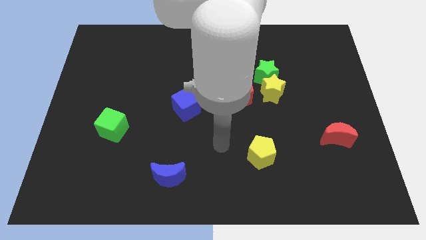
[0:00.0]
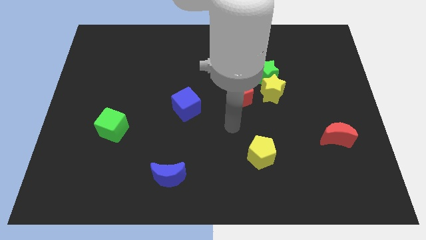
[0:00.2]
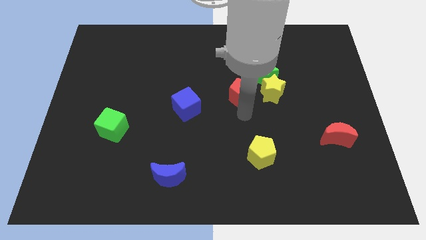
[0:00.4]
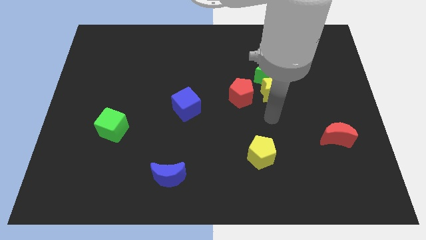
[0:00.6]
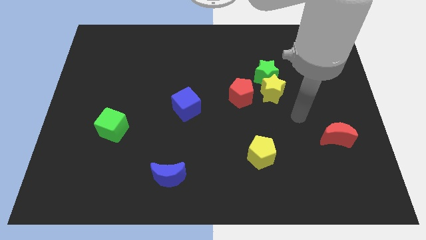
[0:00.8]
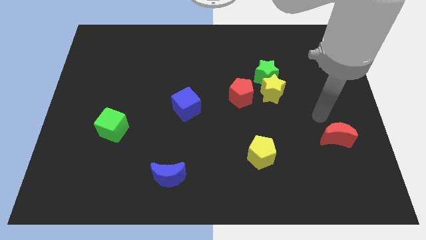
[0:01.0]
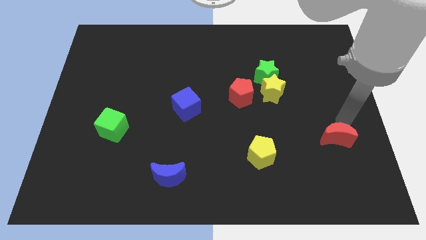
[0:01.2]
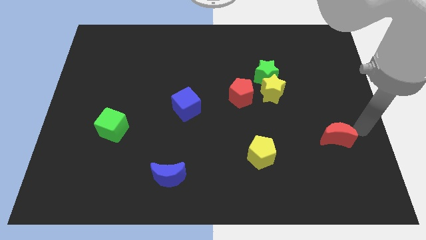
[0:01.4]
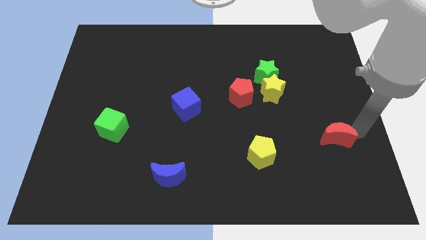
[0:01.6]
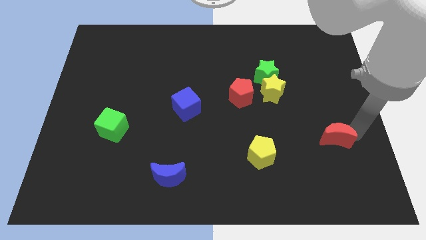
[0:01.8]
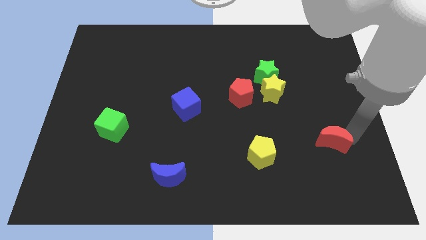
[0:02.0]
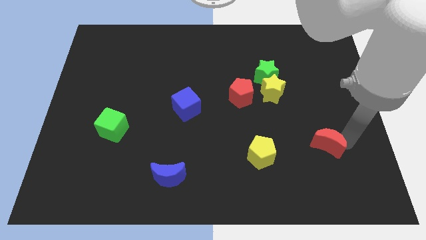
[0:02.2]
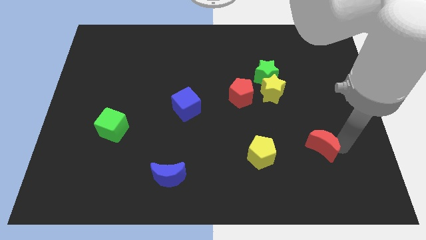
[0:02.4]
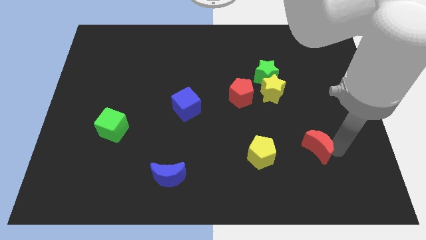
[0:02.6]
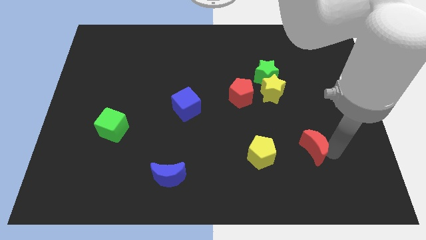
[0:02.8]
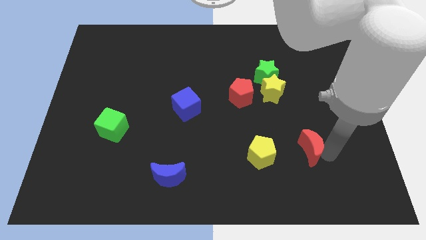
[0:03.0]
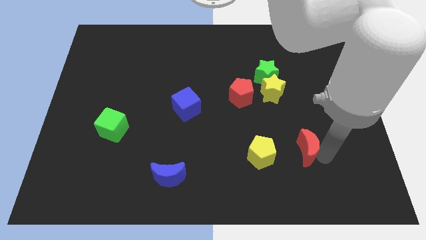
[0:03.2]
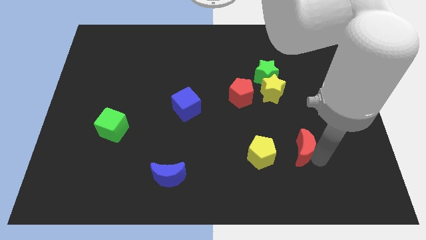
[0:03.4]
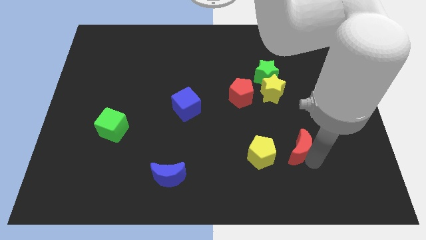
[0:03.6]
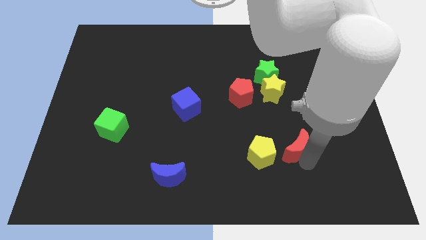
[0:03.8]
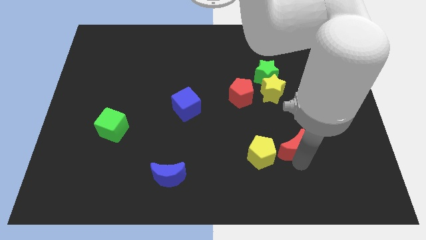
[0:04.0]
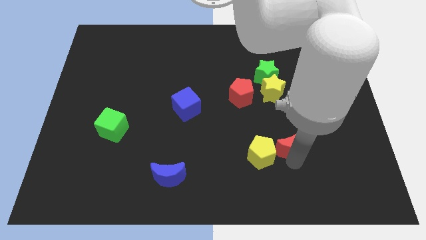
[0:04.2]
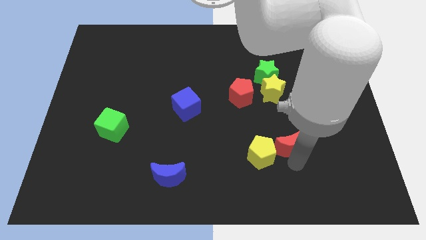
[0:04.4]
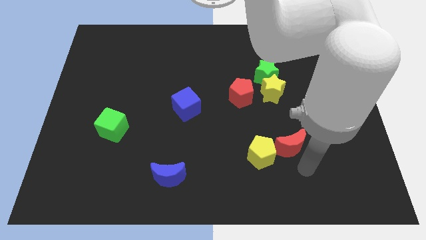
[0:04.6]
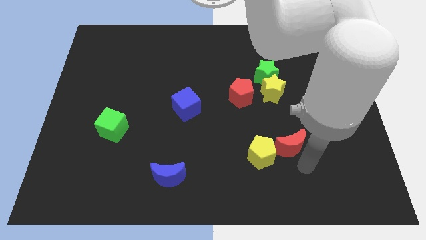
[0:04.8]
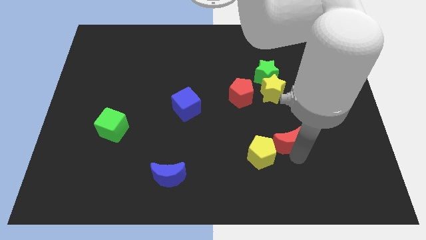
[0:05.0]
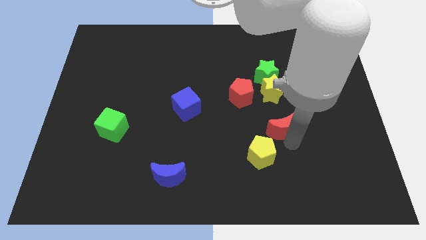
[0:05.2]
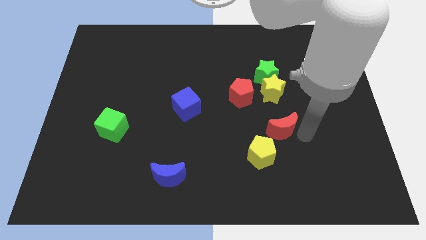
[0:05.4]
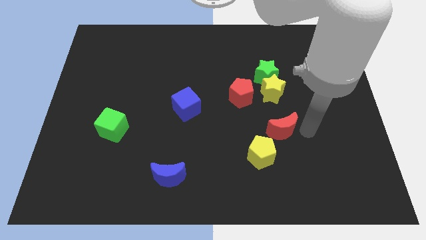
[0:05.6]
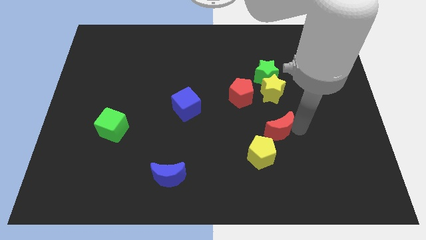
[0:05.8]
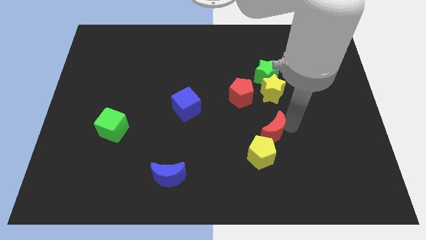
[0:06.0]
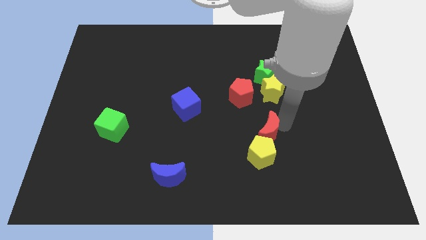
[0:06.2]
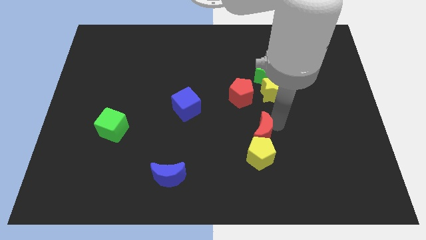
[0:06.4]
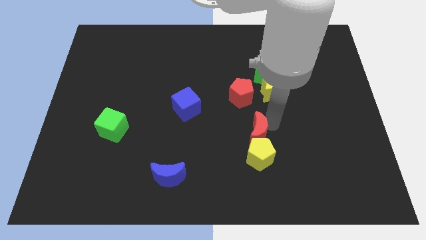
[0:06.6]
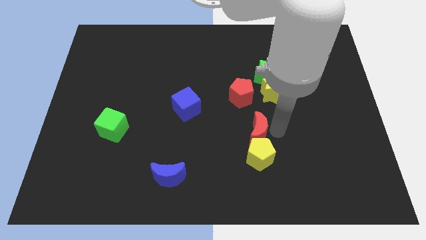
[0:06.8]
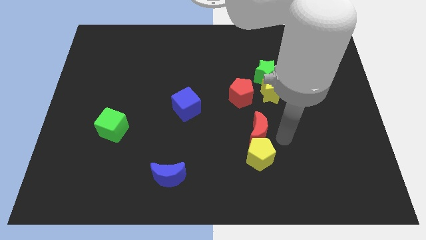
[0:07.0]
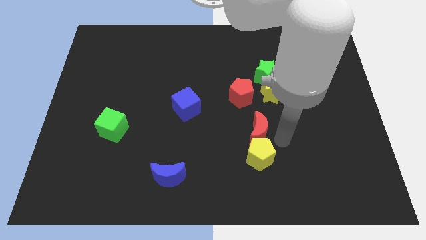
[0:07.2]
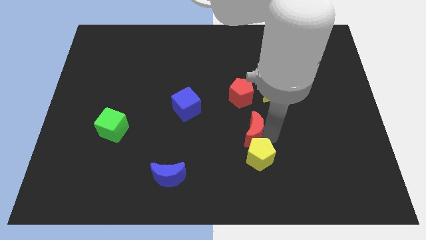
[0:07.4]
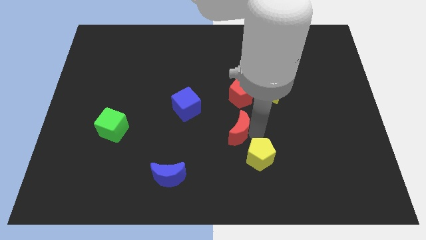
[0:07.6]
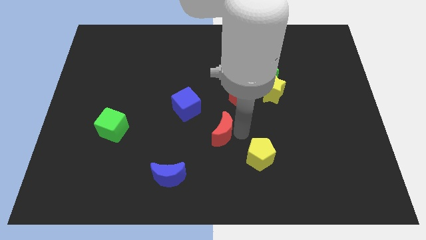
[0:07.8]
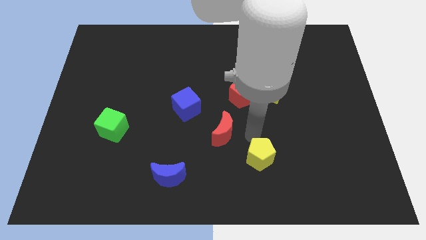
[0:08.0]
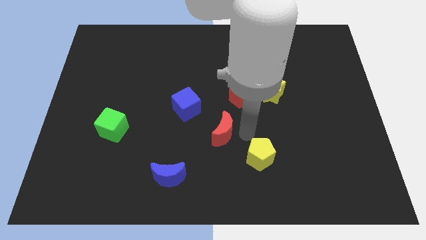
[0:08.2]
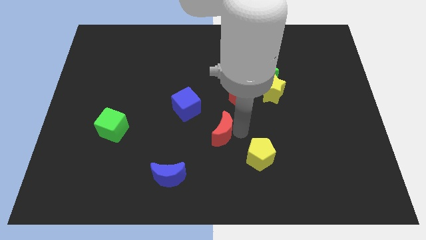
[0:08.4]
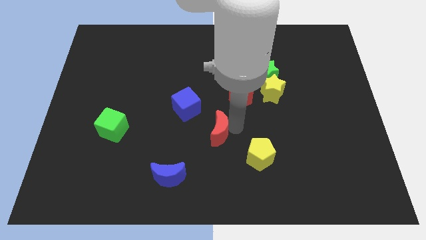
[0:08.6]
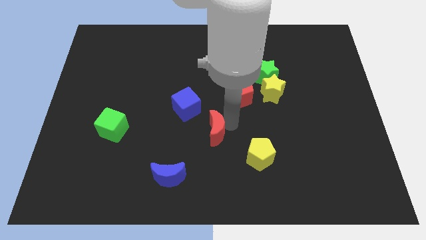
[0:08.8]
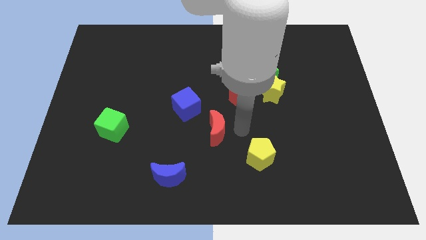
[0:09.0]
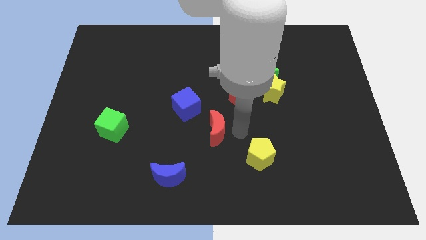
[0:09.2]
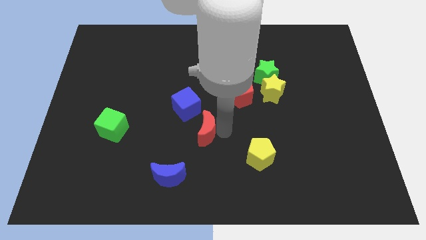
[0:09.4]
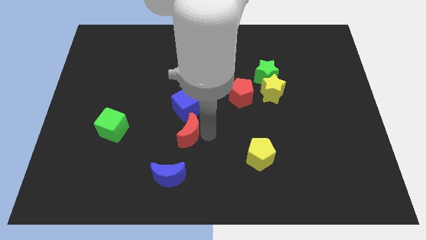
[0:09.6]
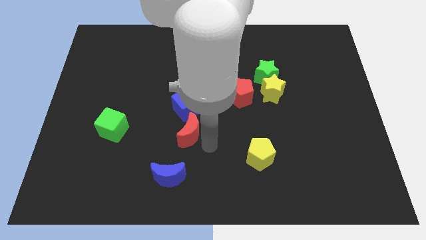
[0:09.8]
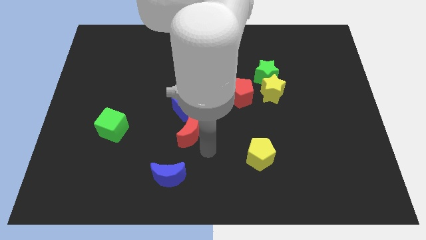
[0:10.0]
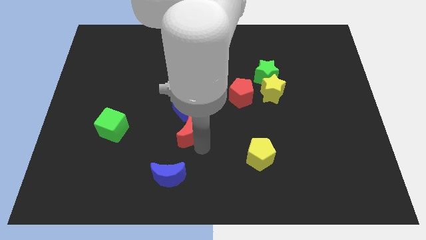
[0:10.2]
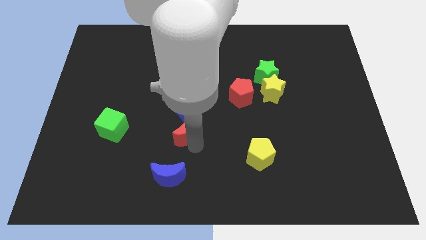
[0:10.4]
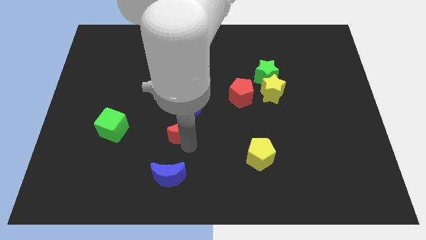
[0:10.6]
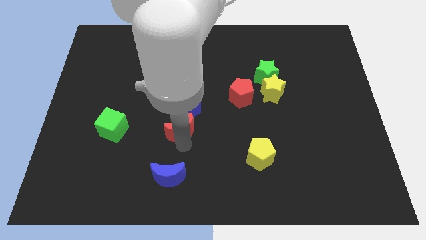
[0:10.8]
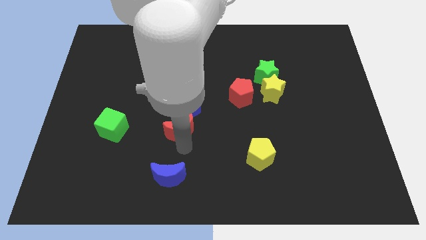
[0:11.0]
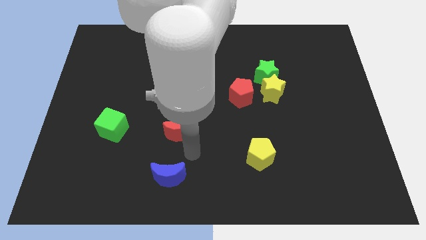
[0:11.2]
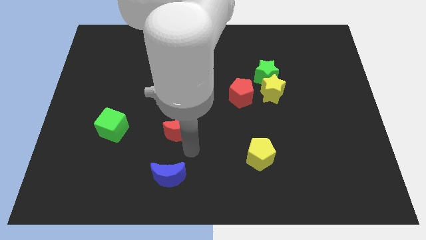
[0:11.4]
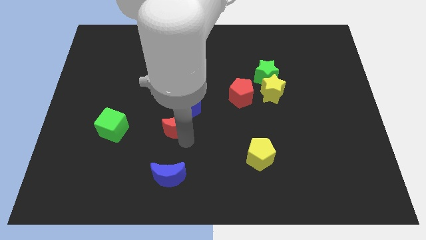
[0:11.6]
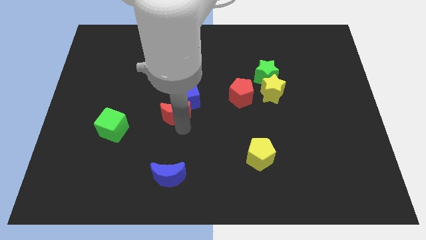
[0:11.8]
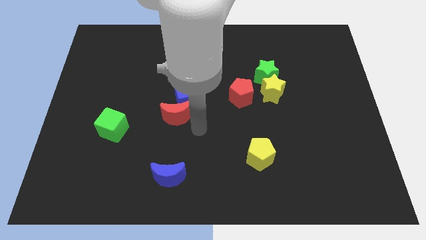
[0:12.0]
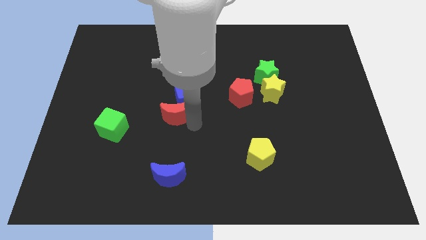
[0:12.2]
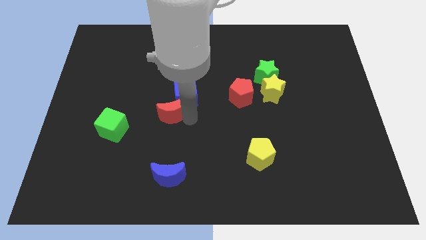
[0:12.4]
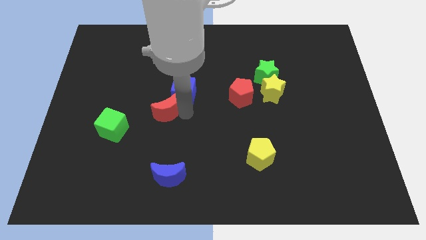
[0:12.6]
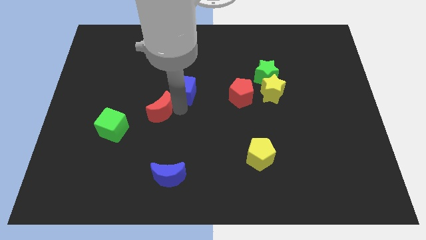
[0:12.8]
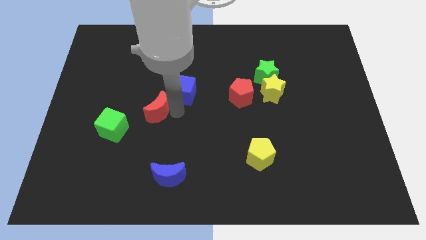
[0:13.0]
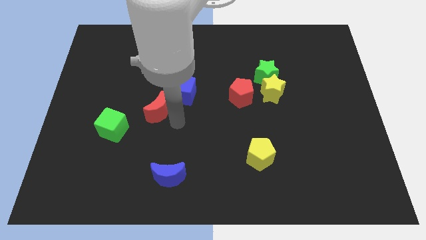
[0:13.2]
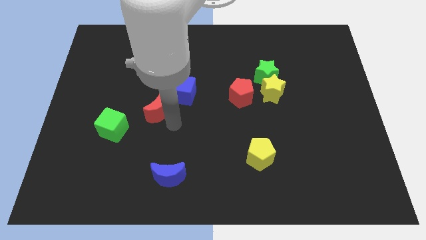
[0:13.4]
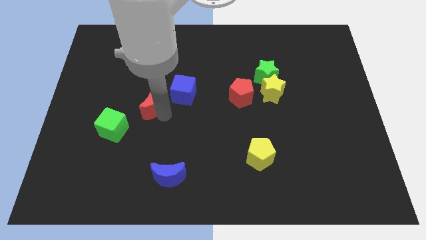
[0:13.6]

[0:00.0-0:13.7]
move the red moon just left of the blue cube
